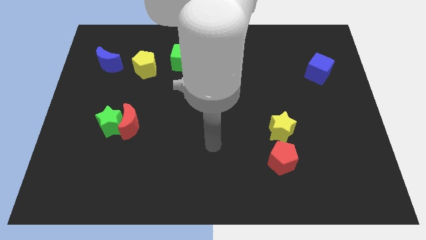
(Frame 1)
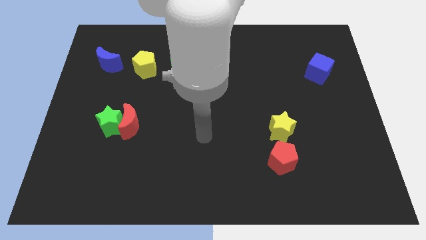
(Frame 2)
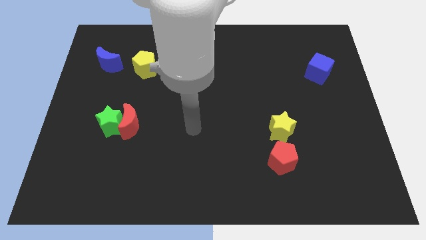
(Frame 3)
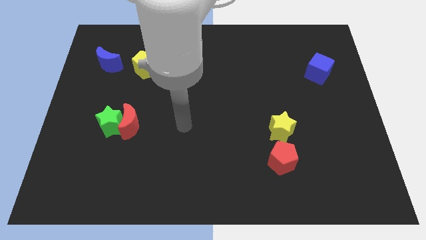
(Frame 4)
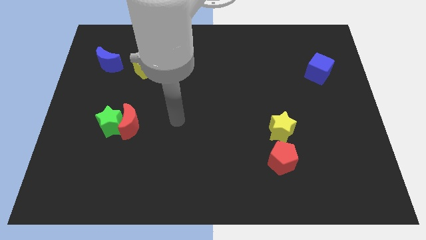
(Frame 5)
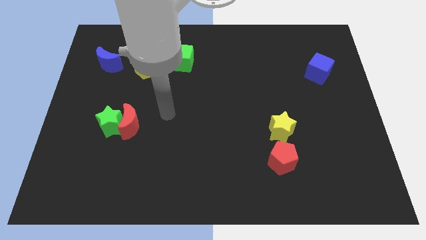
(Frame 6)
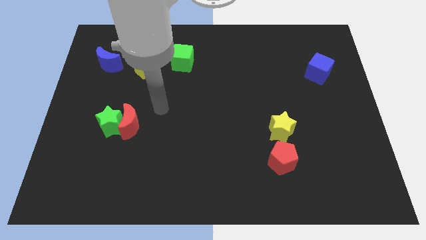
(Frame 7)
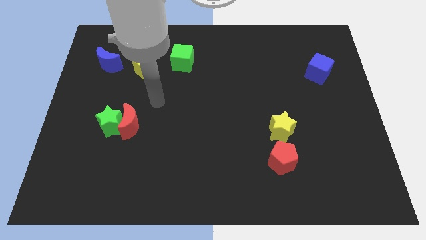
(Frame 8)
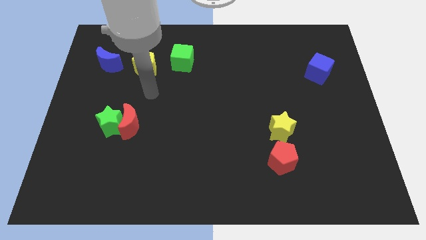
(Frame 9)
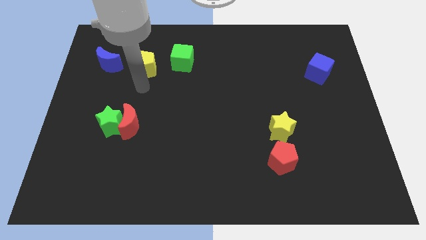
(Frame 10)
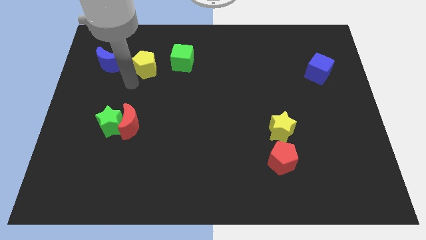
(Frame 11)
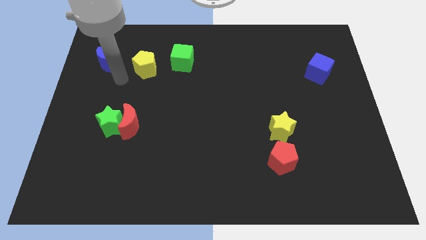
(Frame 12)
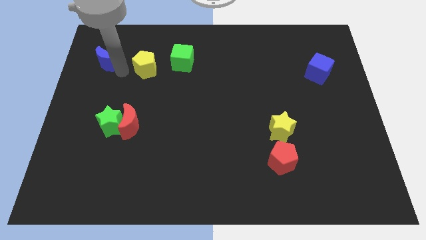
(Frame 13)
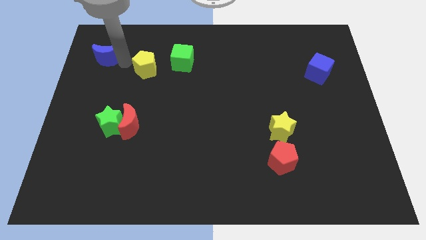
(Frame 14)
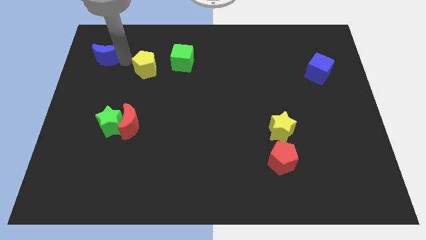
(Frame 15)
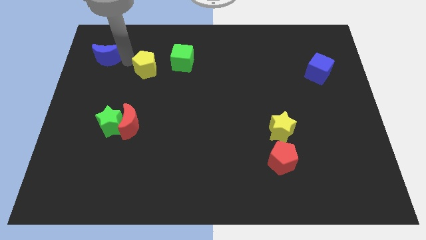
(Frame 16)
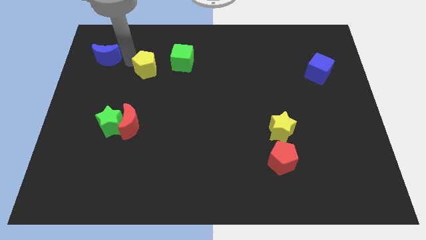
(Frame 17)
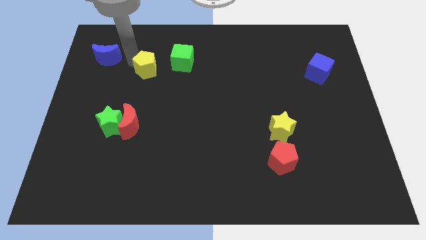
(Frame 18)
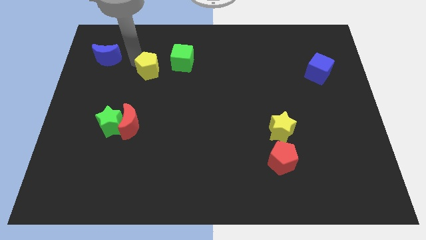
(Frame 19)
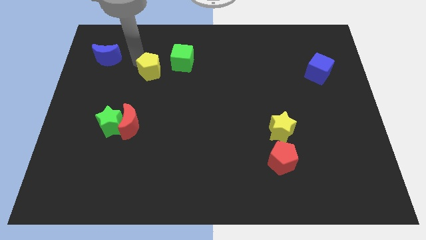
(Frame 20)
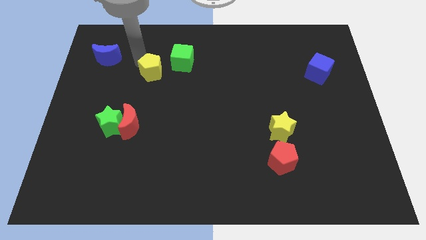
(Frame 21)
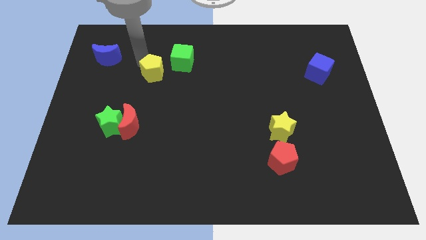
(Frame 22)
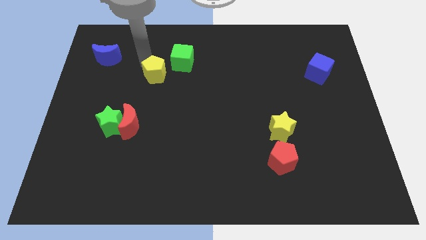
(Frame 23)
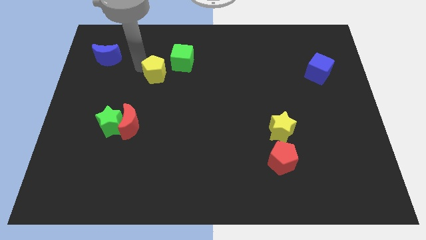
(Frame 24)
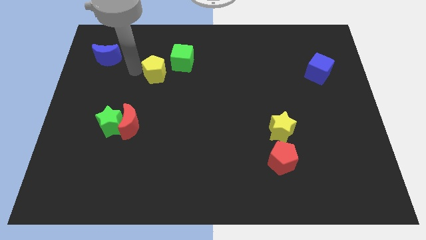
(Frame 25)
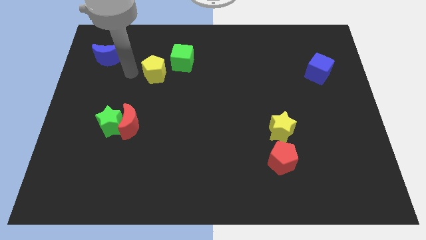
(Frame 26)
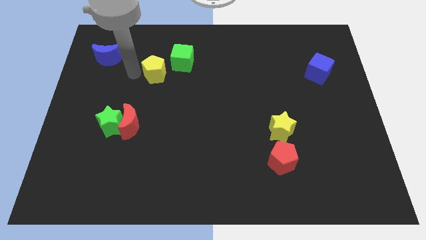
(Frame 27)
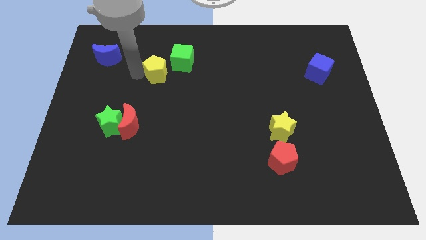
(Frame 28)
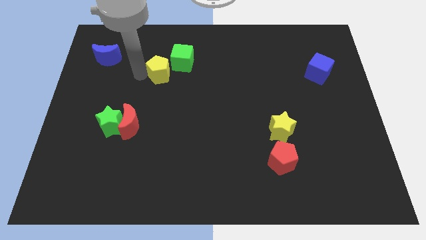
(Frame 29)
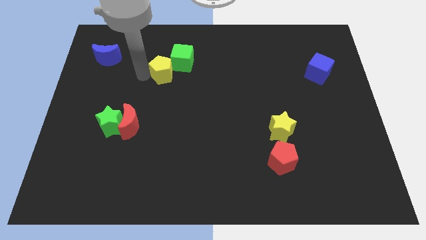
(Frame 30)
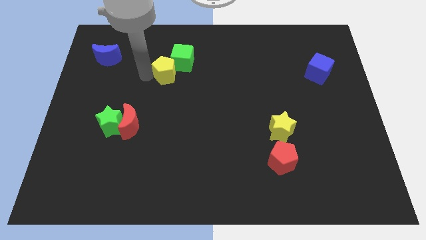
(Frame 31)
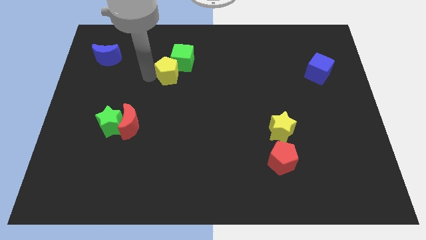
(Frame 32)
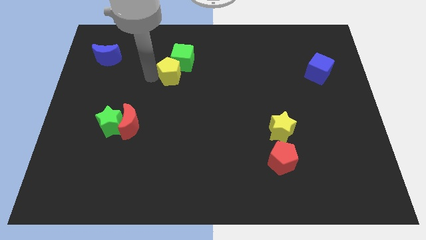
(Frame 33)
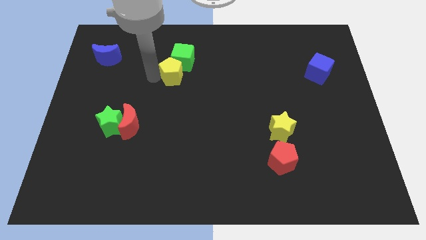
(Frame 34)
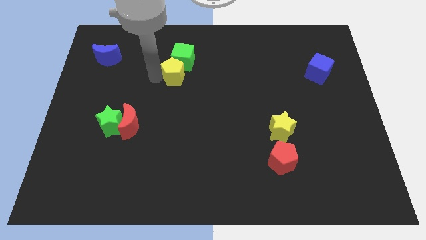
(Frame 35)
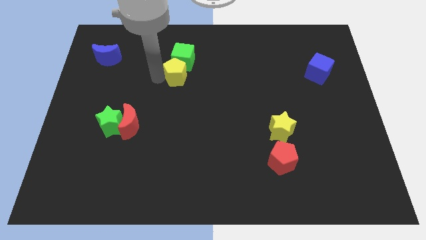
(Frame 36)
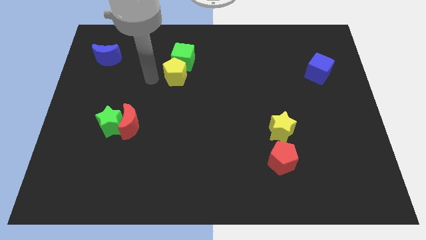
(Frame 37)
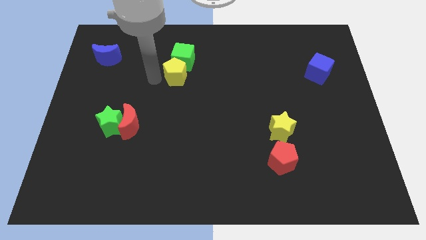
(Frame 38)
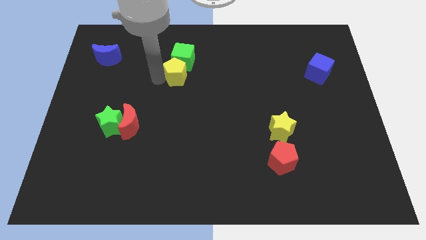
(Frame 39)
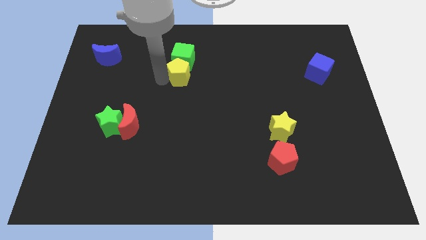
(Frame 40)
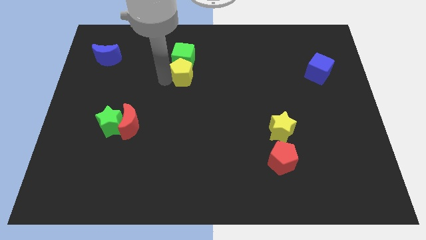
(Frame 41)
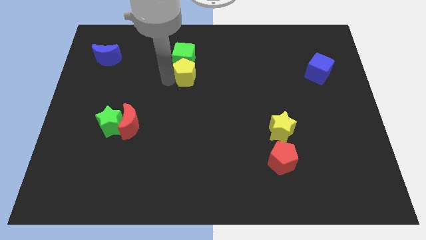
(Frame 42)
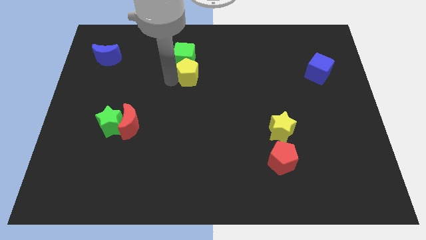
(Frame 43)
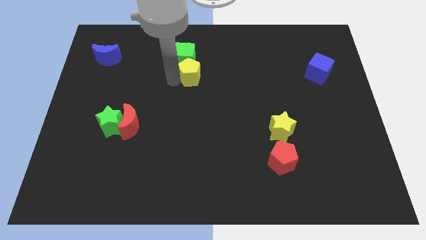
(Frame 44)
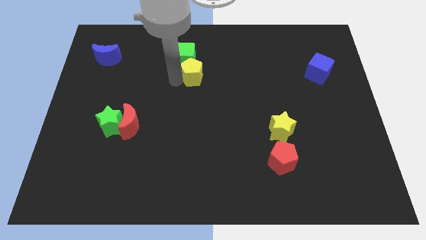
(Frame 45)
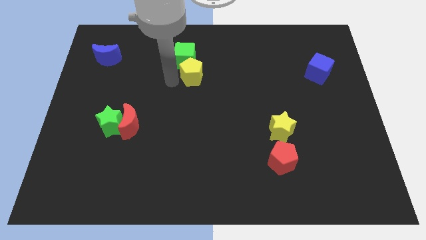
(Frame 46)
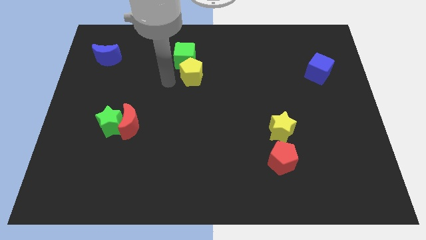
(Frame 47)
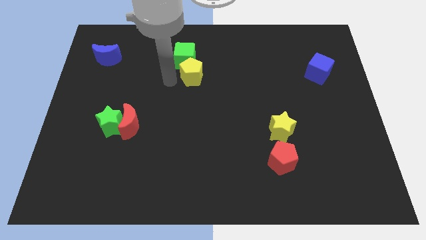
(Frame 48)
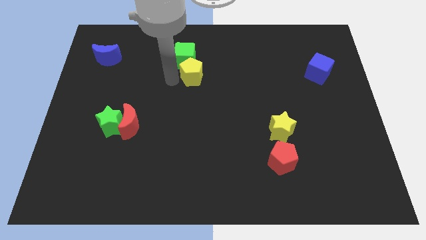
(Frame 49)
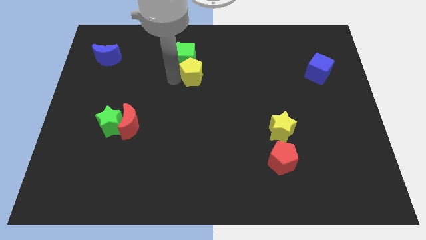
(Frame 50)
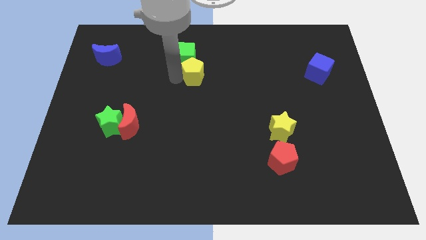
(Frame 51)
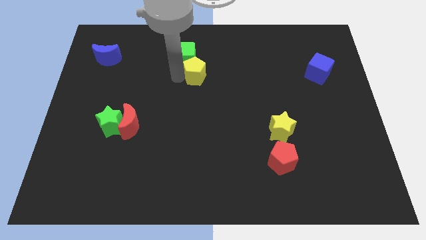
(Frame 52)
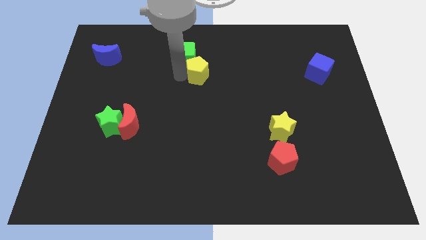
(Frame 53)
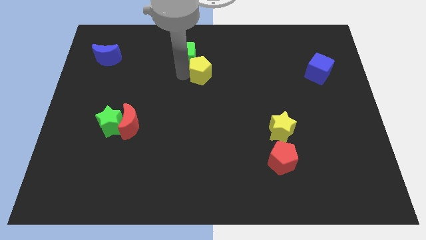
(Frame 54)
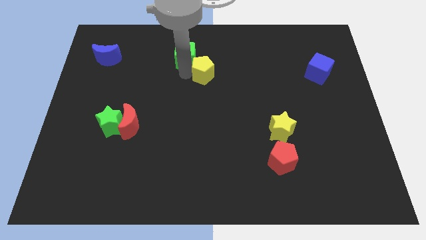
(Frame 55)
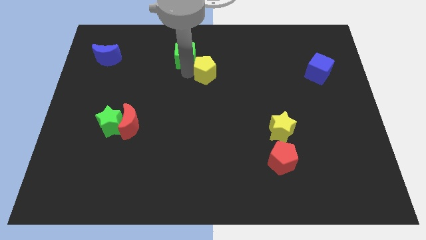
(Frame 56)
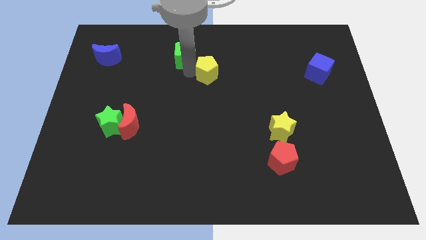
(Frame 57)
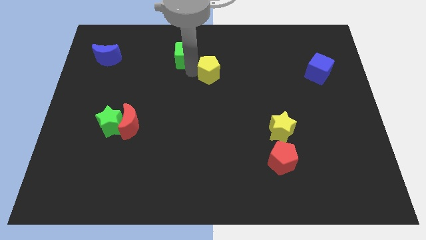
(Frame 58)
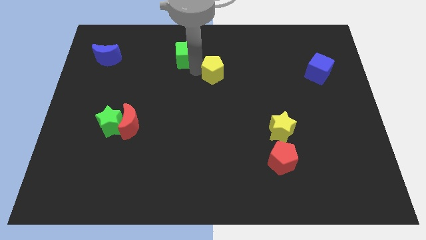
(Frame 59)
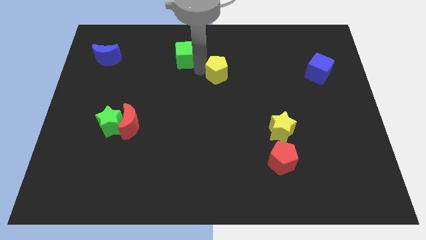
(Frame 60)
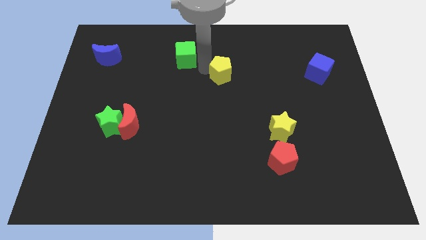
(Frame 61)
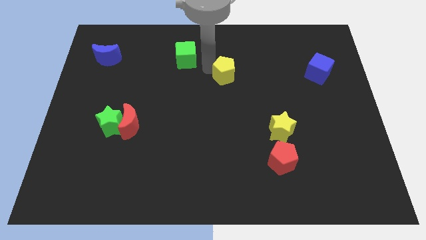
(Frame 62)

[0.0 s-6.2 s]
push the yellow pentagon to the right

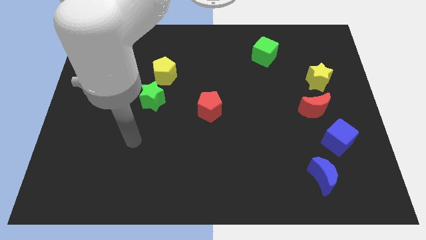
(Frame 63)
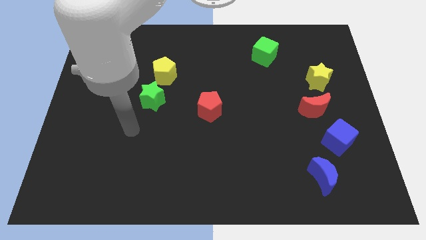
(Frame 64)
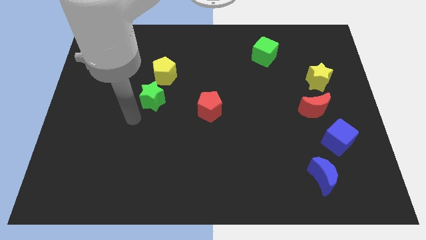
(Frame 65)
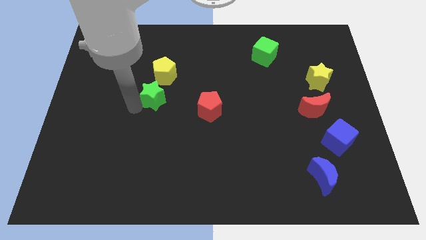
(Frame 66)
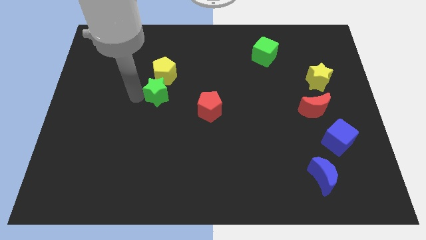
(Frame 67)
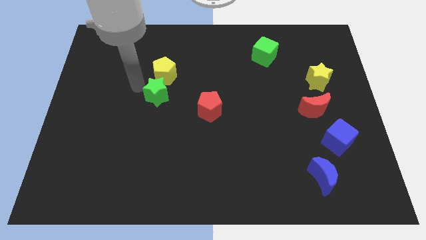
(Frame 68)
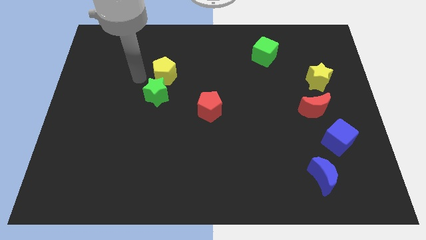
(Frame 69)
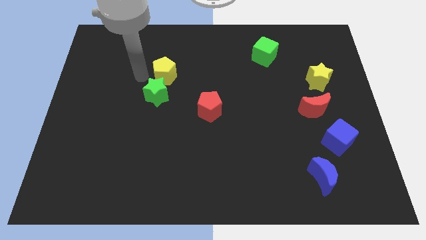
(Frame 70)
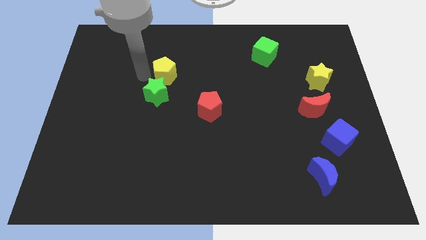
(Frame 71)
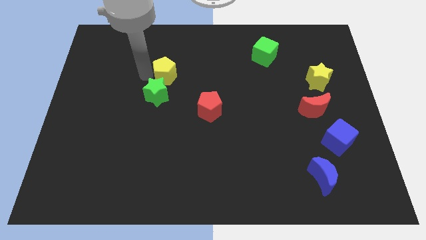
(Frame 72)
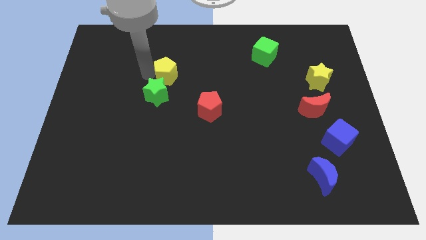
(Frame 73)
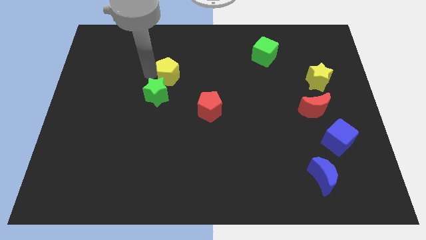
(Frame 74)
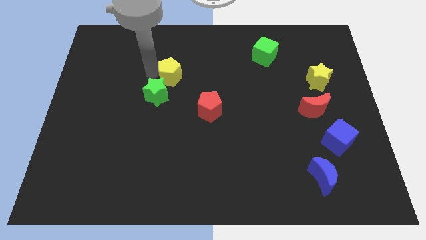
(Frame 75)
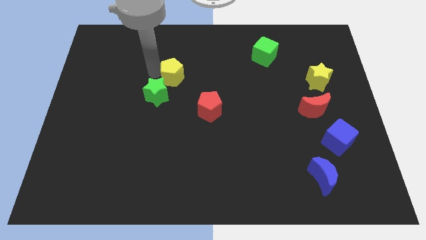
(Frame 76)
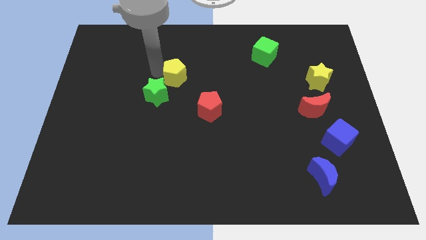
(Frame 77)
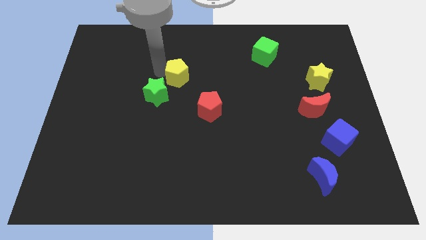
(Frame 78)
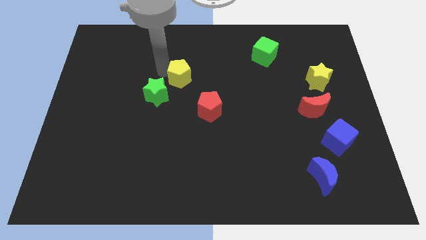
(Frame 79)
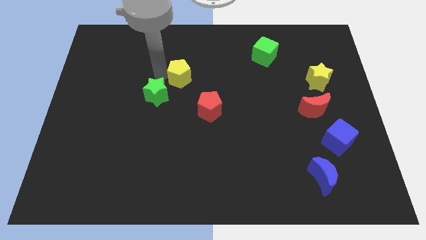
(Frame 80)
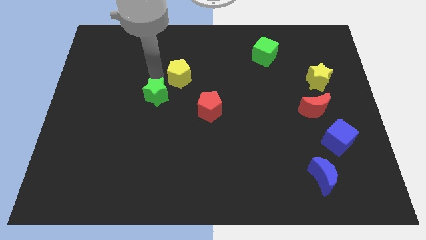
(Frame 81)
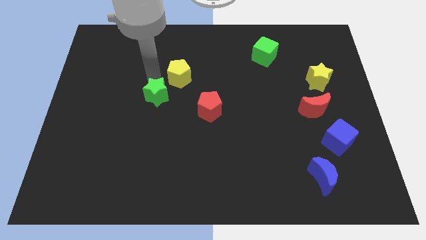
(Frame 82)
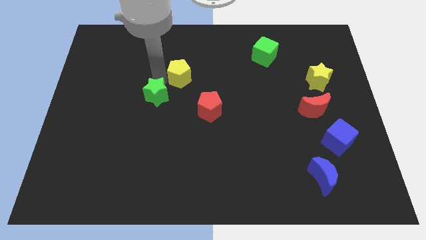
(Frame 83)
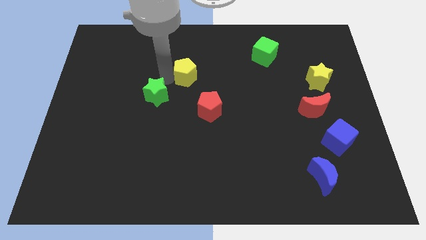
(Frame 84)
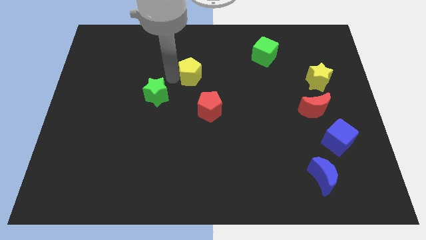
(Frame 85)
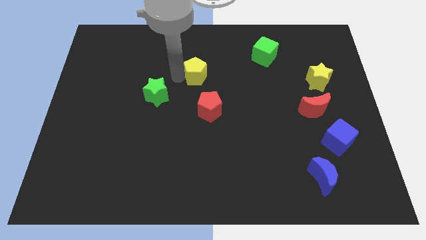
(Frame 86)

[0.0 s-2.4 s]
slide the yellow pentagon to the right slightly
